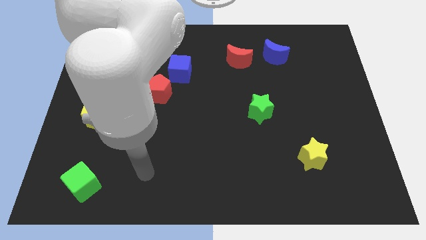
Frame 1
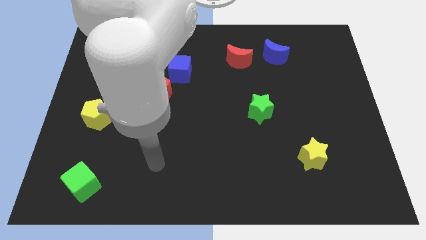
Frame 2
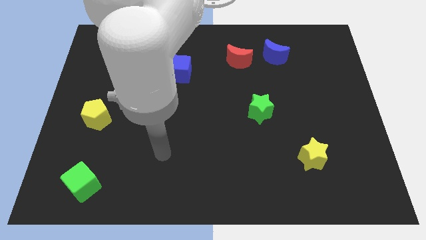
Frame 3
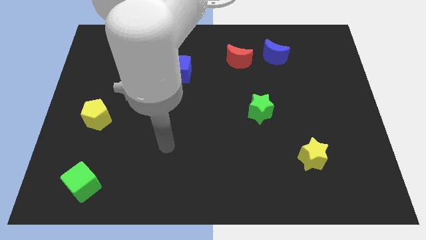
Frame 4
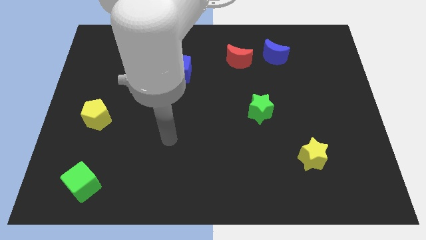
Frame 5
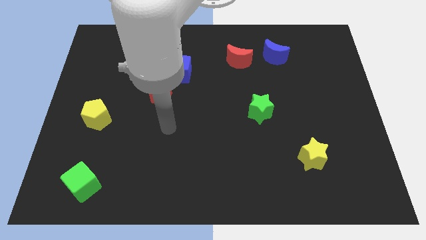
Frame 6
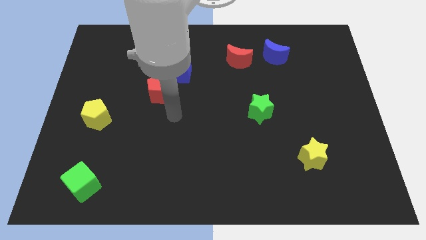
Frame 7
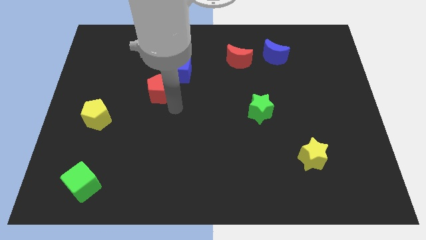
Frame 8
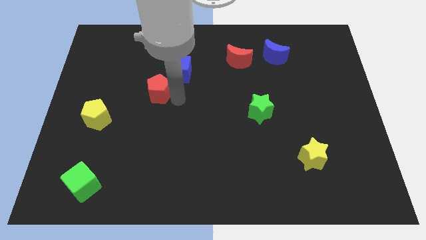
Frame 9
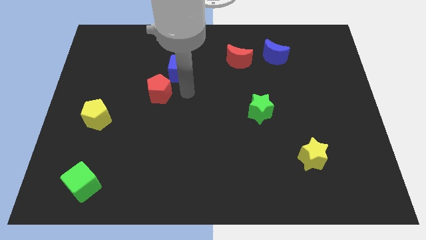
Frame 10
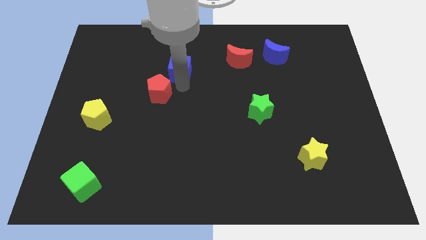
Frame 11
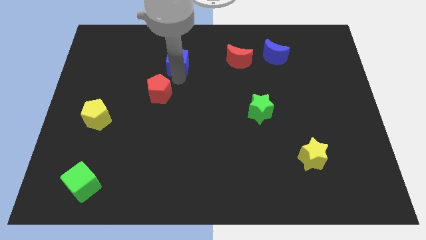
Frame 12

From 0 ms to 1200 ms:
move the red pentagon away from the blue cube

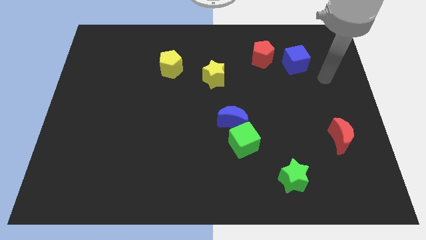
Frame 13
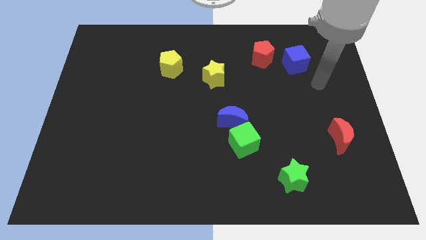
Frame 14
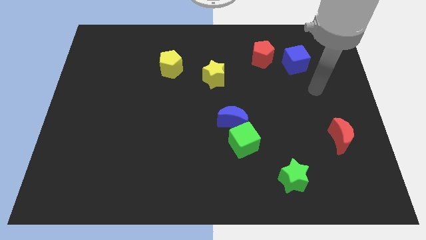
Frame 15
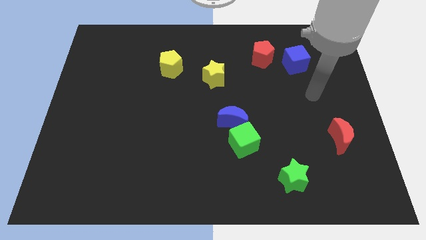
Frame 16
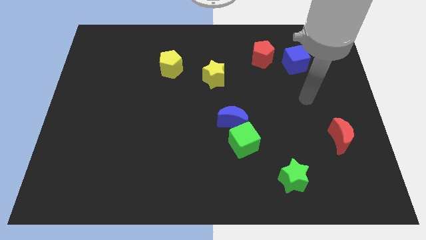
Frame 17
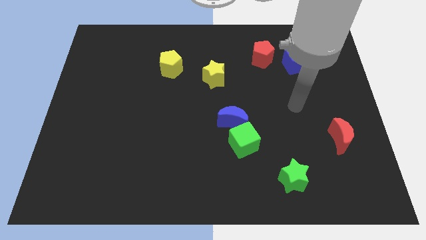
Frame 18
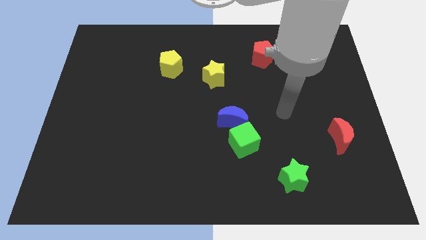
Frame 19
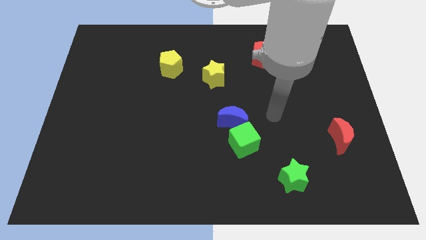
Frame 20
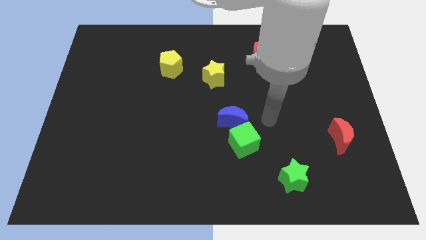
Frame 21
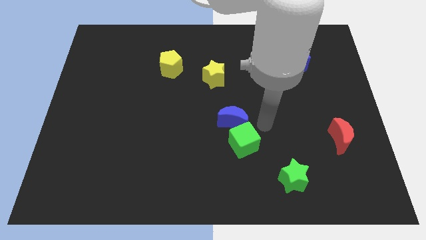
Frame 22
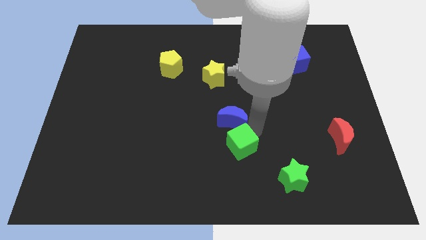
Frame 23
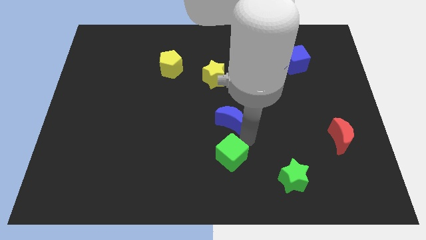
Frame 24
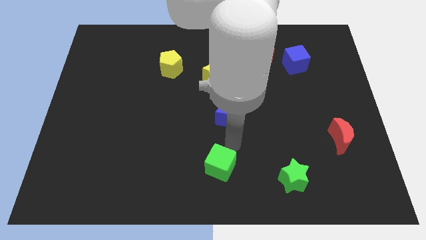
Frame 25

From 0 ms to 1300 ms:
separate the blue moon from the green cube

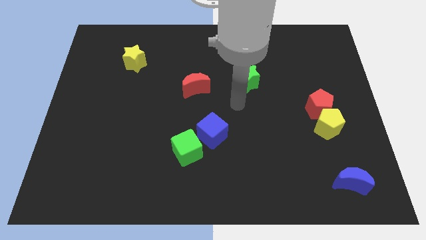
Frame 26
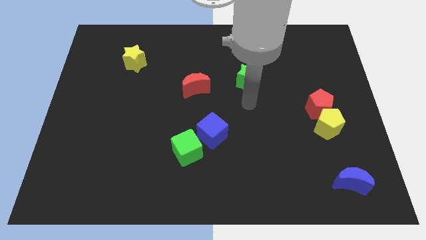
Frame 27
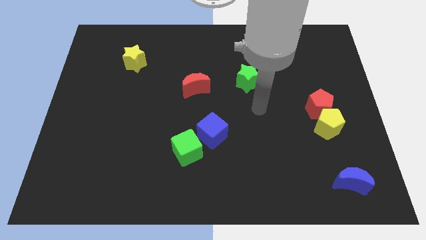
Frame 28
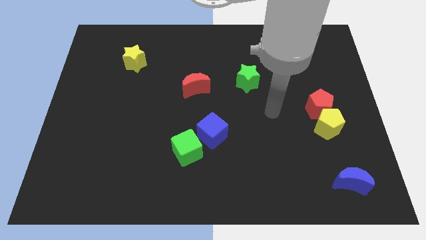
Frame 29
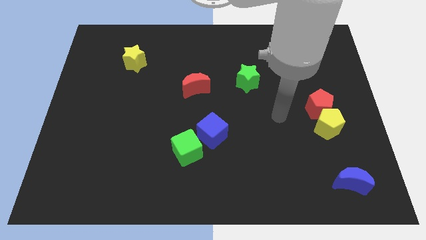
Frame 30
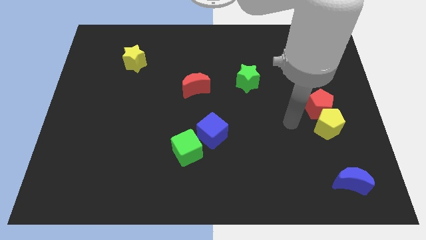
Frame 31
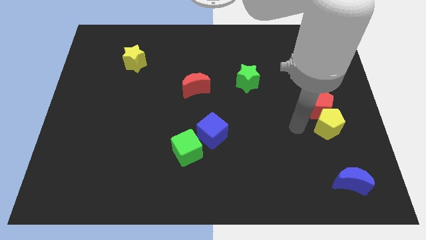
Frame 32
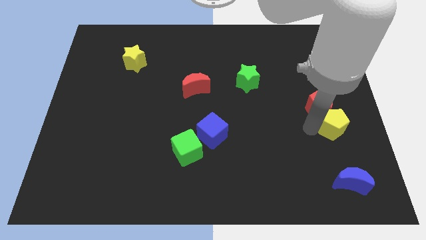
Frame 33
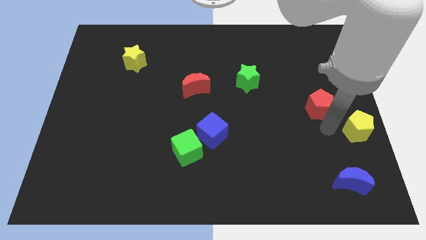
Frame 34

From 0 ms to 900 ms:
move the red pentagon away from the yellow pentagon

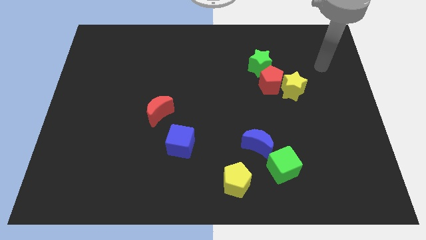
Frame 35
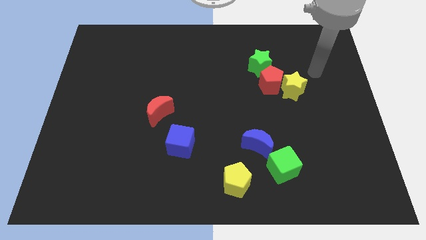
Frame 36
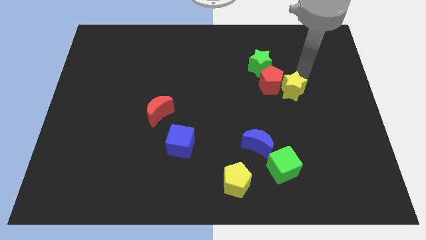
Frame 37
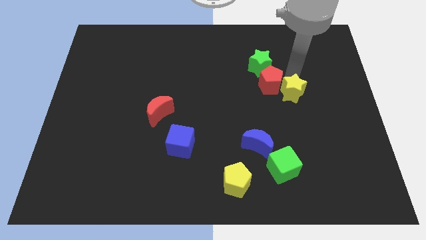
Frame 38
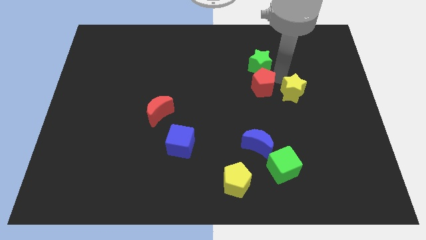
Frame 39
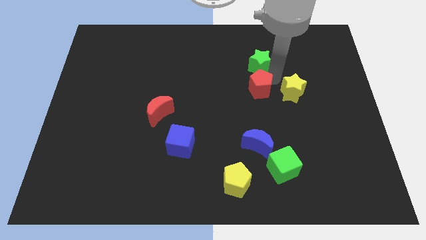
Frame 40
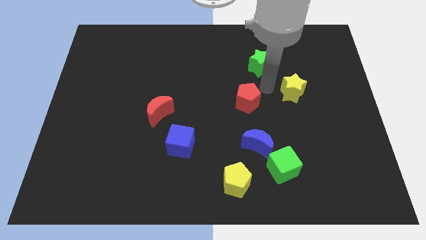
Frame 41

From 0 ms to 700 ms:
pull the yellow star apart from the red pentagon

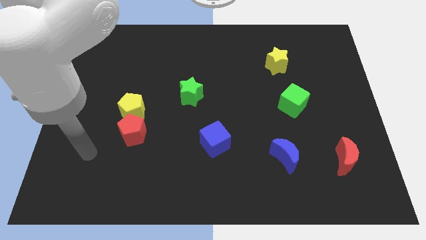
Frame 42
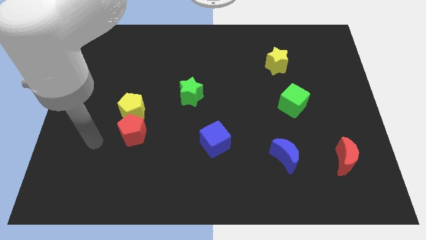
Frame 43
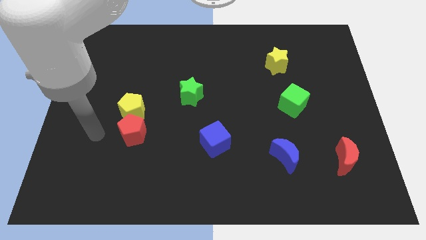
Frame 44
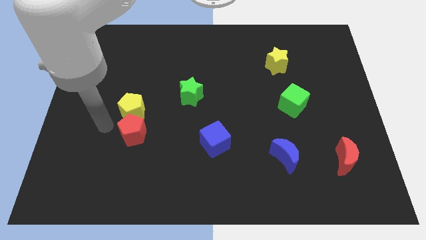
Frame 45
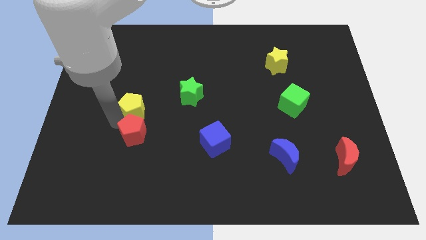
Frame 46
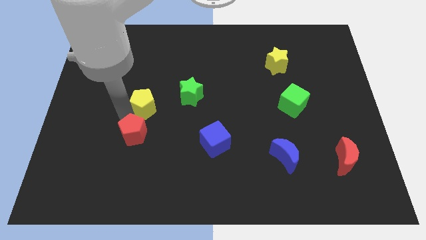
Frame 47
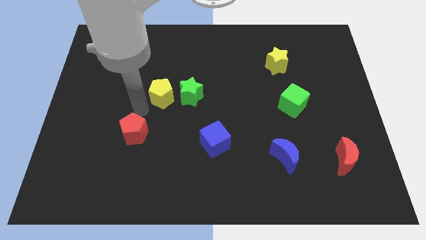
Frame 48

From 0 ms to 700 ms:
separate the red pentagon from the yellow pentagon

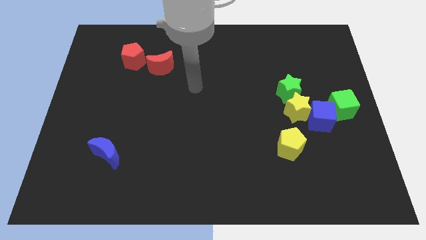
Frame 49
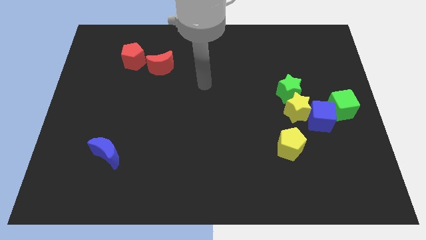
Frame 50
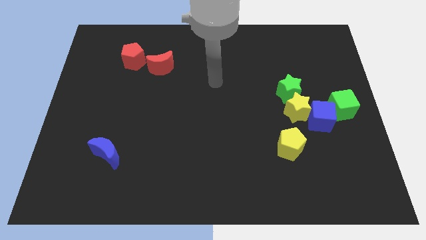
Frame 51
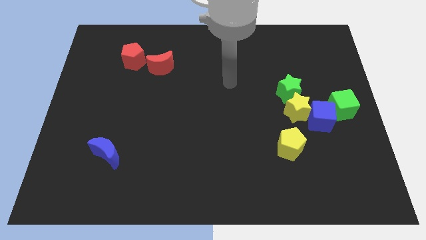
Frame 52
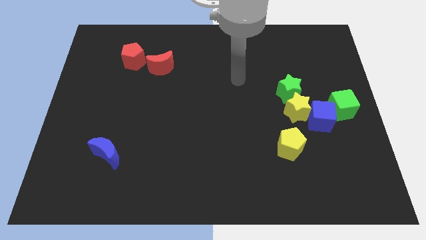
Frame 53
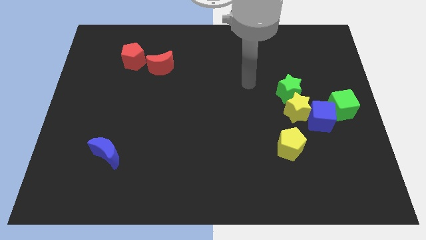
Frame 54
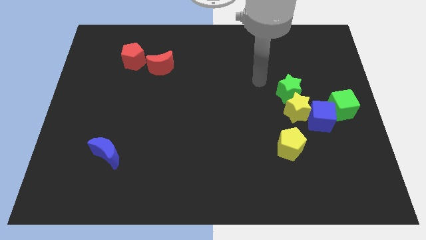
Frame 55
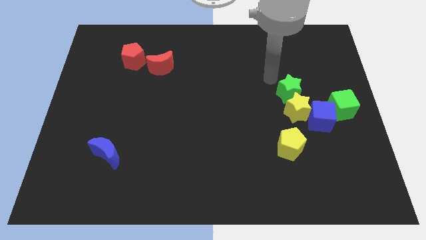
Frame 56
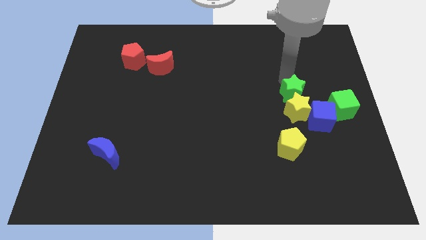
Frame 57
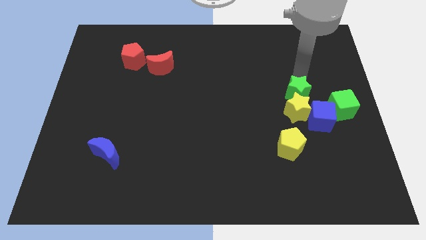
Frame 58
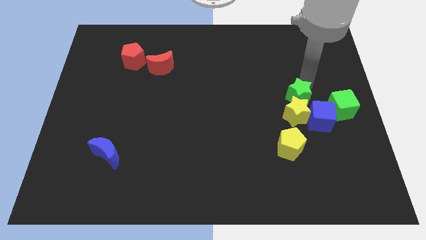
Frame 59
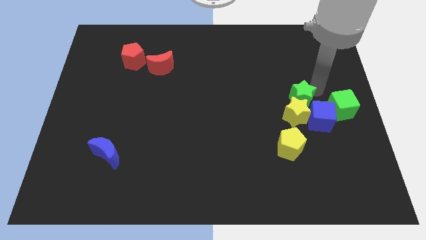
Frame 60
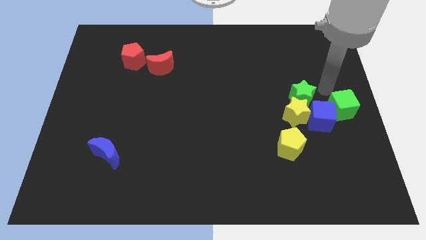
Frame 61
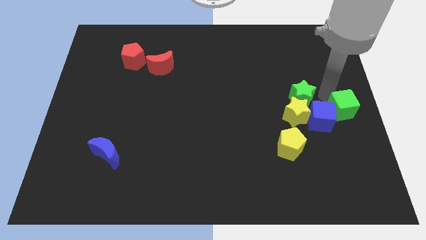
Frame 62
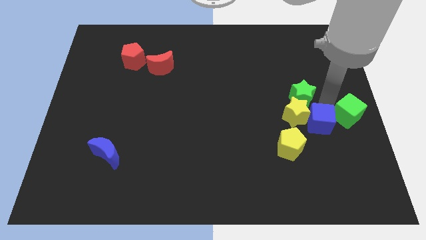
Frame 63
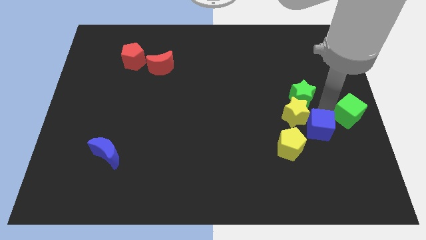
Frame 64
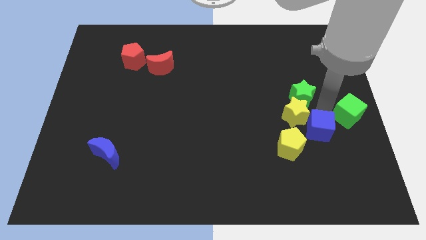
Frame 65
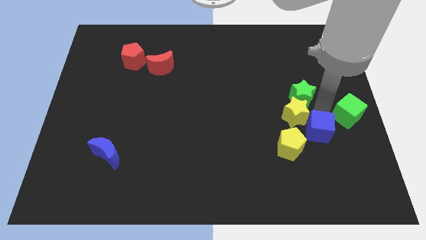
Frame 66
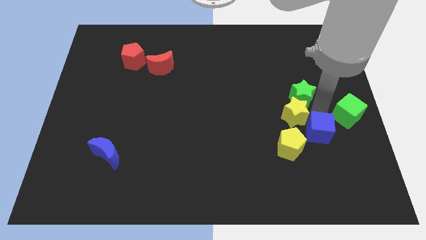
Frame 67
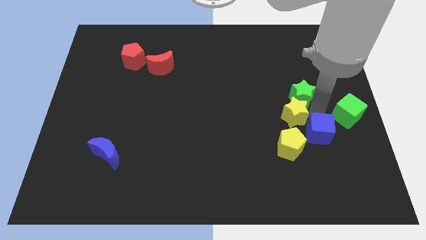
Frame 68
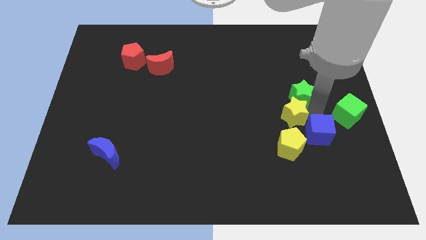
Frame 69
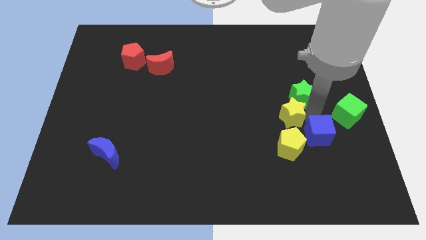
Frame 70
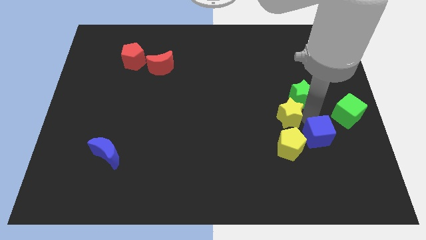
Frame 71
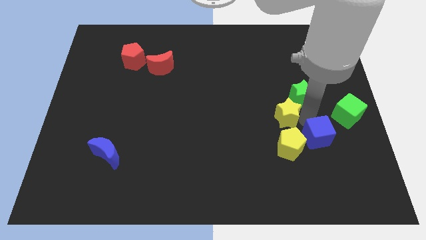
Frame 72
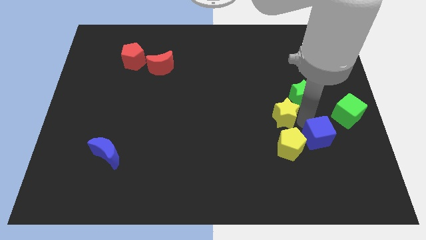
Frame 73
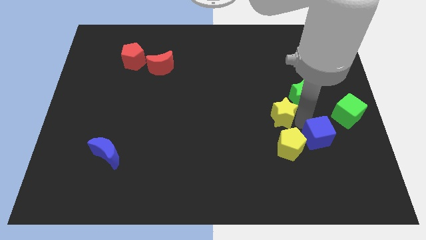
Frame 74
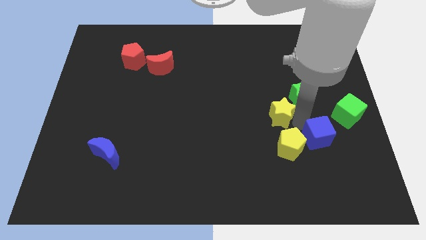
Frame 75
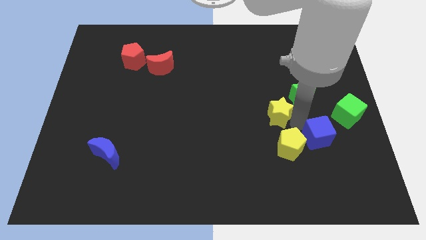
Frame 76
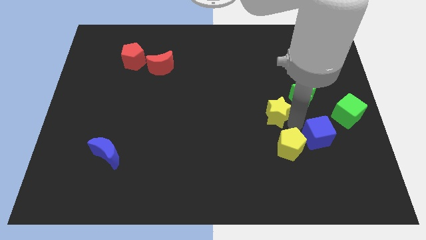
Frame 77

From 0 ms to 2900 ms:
pull the yellow star apart from the blue cube, green star, and green cube

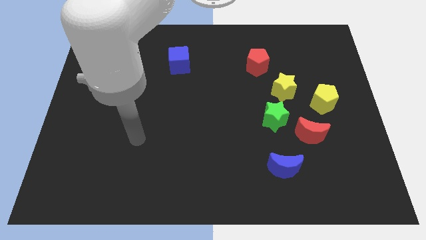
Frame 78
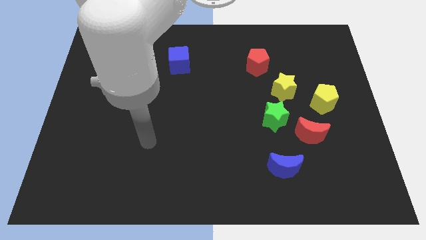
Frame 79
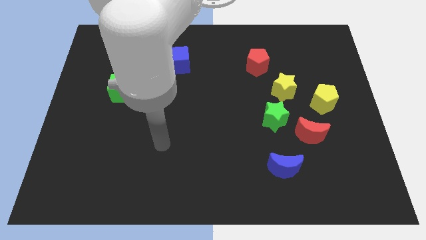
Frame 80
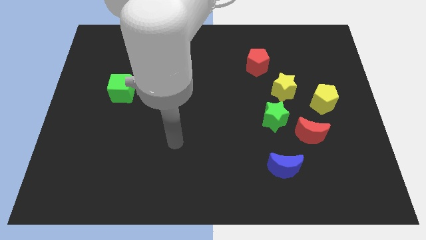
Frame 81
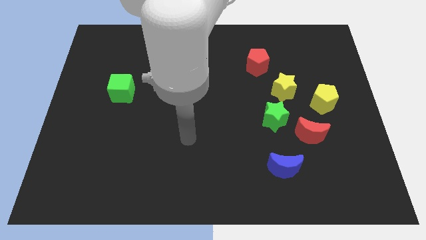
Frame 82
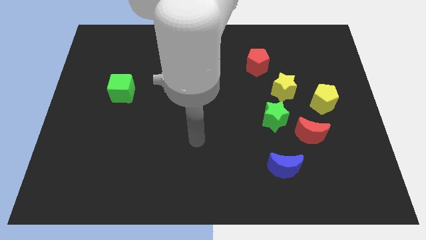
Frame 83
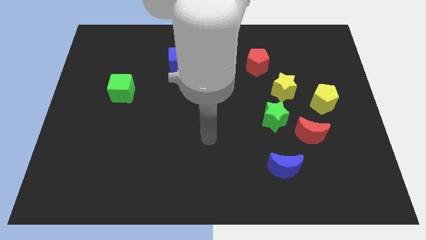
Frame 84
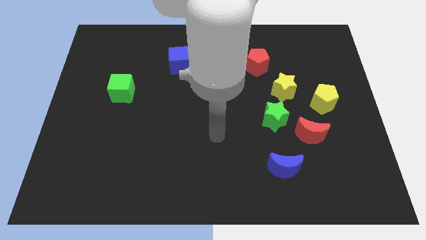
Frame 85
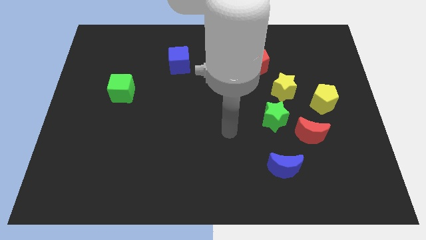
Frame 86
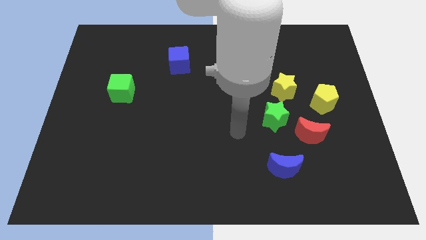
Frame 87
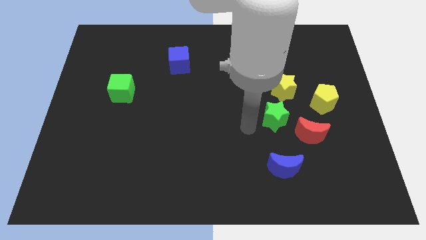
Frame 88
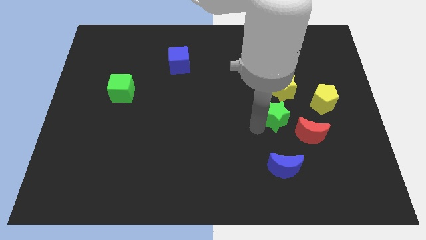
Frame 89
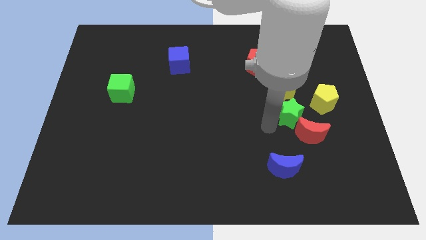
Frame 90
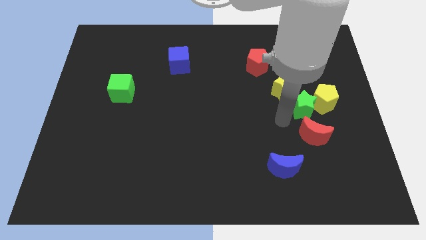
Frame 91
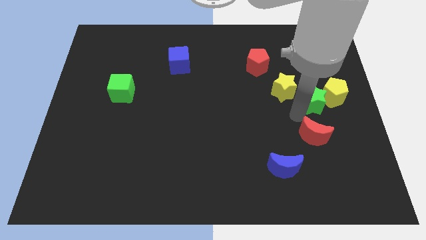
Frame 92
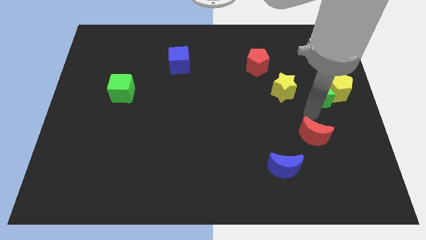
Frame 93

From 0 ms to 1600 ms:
move the red moon away from the green star
